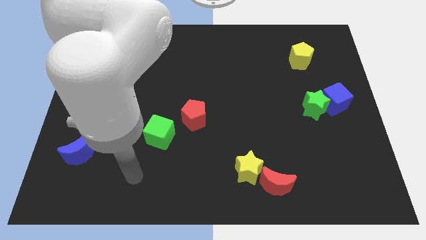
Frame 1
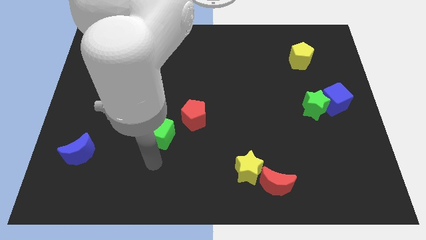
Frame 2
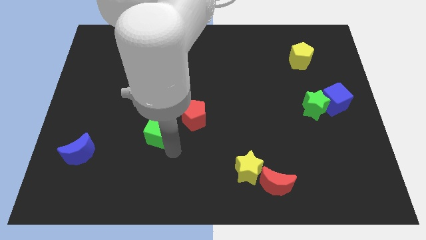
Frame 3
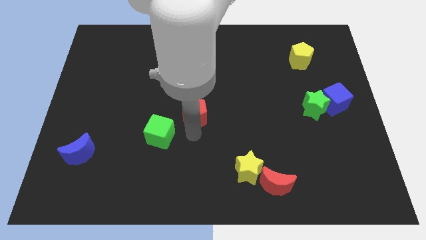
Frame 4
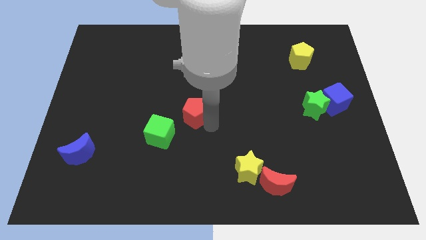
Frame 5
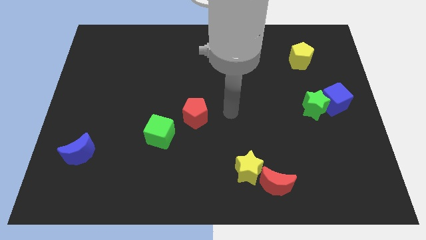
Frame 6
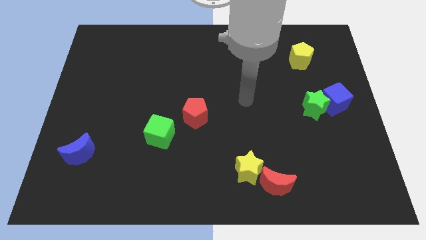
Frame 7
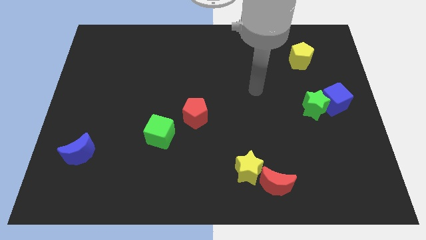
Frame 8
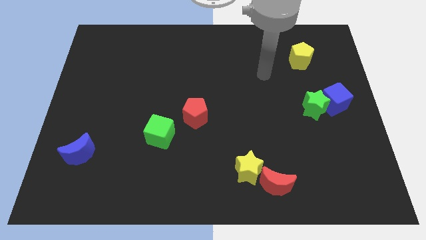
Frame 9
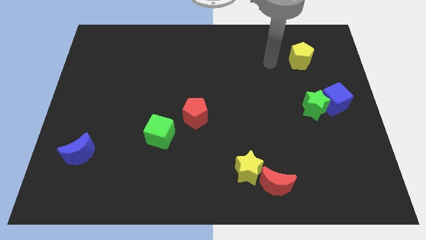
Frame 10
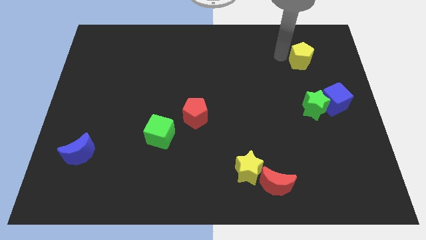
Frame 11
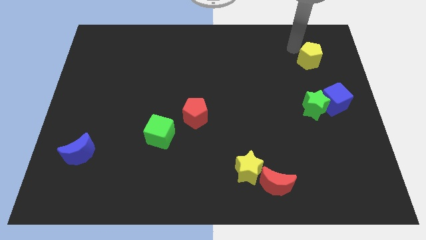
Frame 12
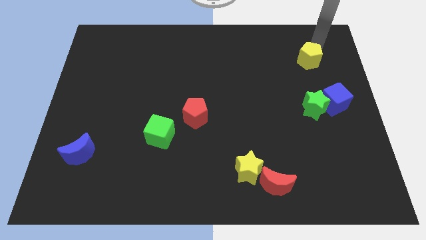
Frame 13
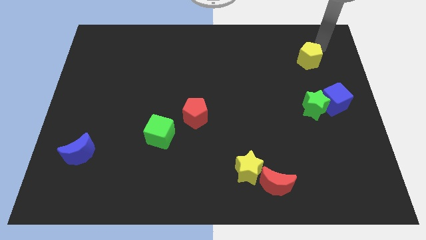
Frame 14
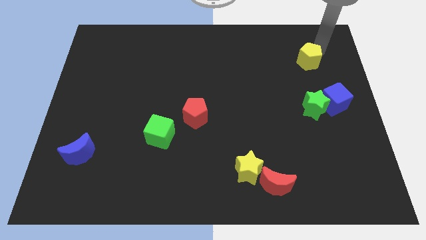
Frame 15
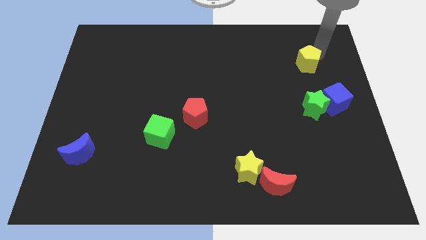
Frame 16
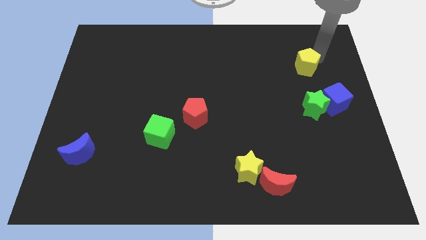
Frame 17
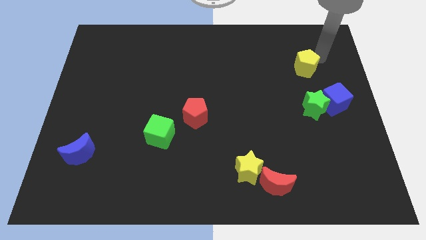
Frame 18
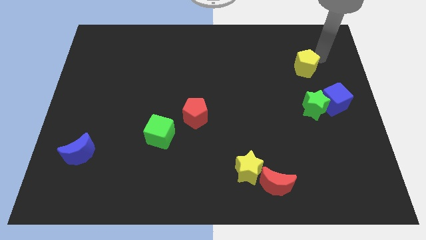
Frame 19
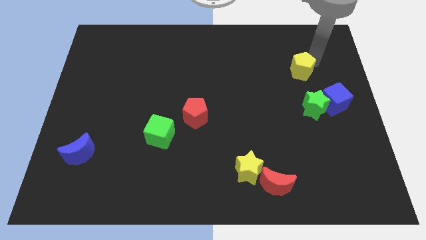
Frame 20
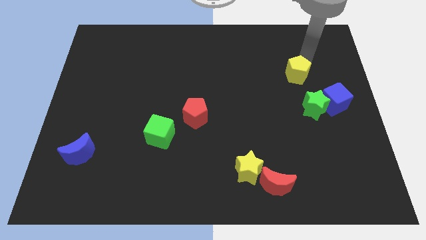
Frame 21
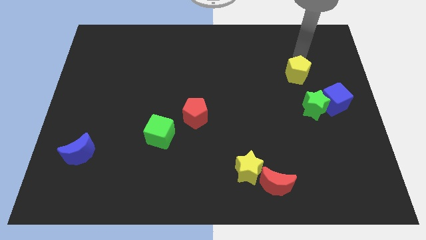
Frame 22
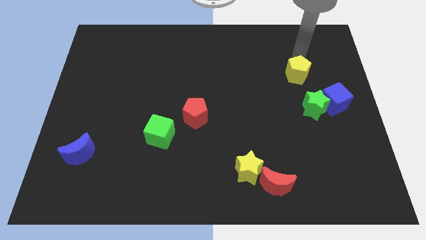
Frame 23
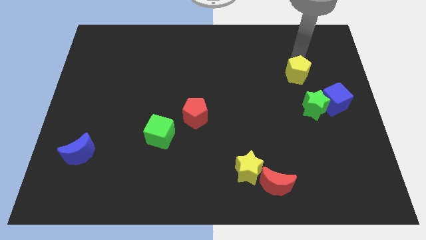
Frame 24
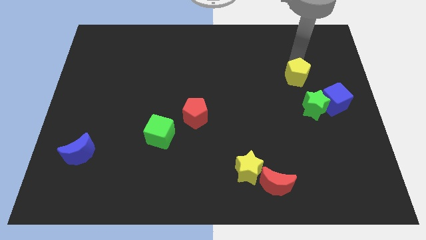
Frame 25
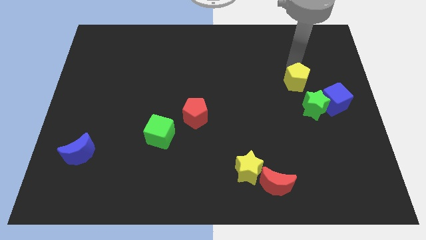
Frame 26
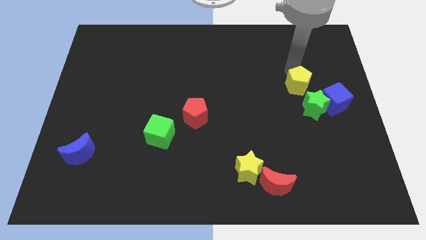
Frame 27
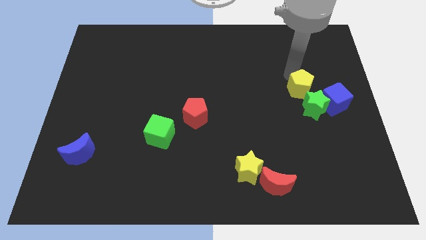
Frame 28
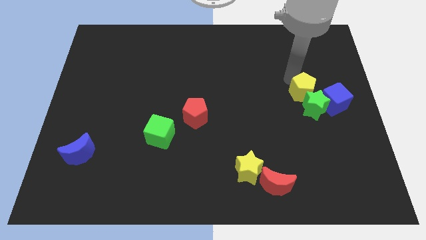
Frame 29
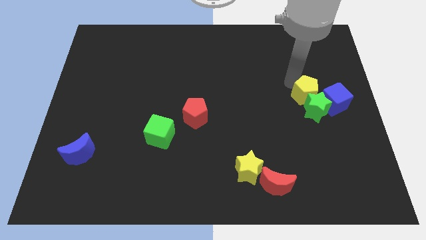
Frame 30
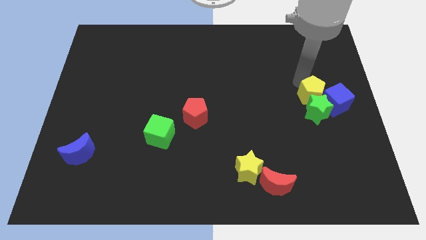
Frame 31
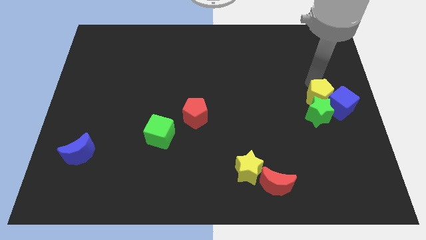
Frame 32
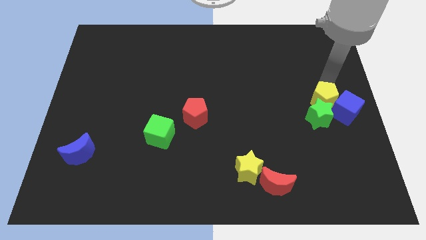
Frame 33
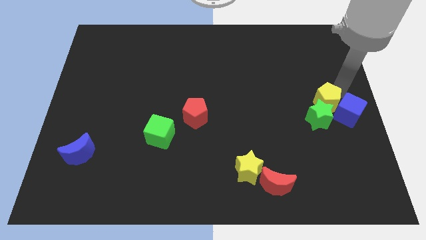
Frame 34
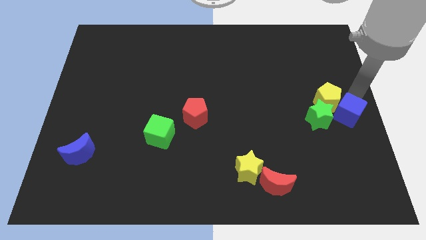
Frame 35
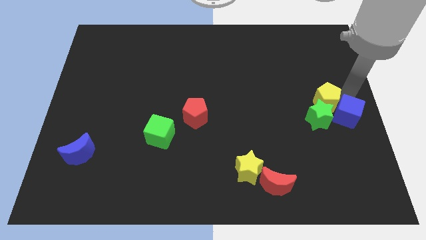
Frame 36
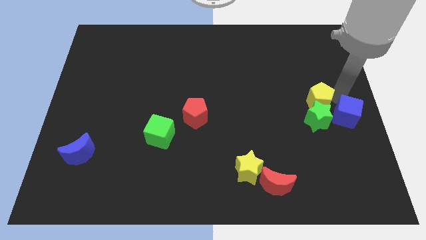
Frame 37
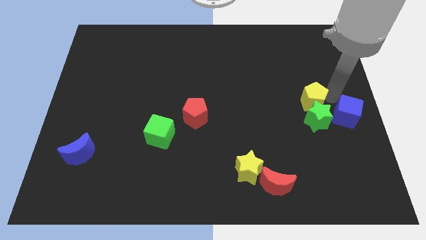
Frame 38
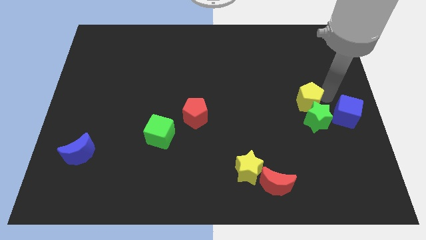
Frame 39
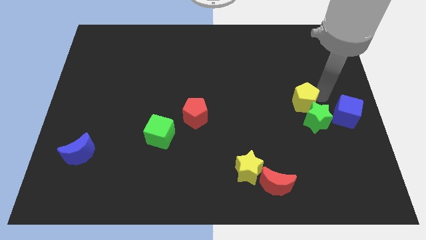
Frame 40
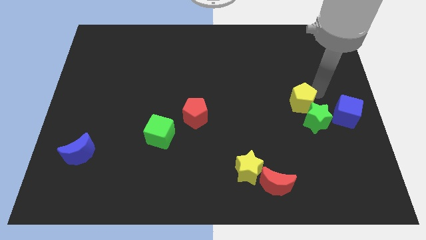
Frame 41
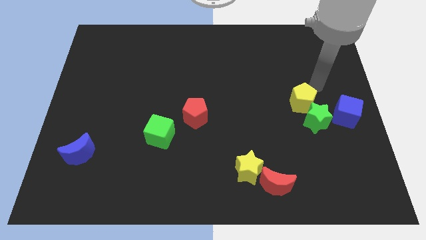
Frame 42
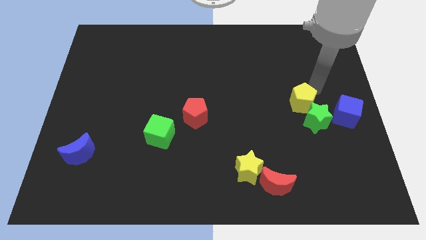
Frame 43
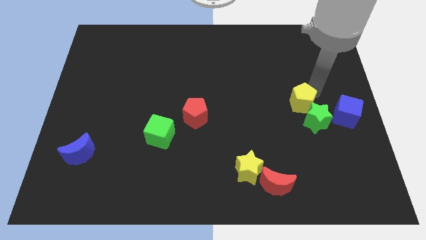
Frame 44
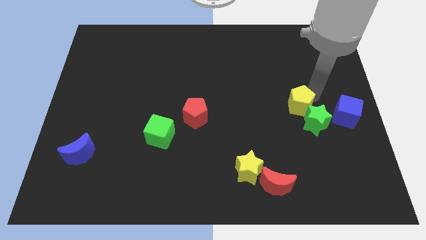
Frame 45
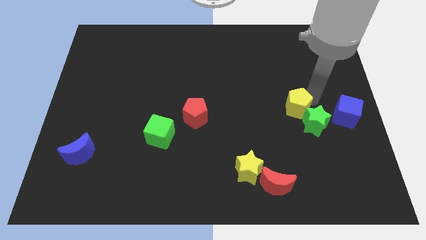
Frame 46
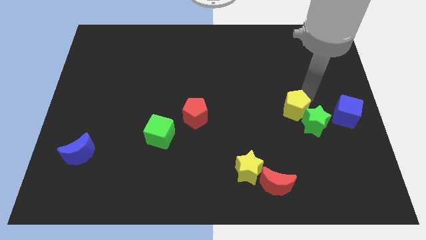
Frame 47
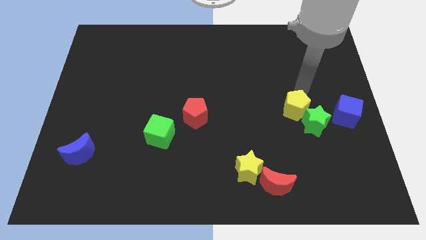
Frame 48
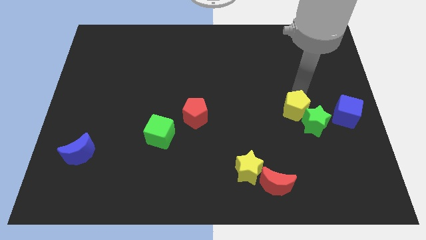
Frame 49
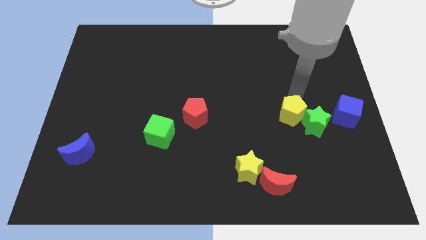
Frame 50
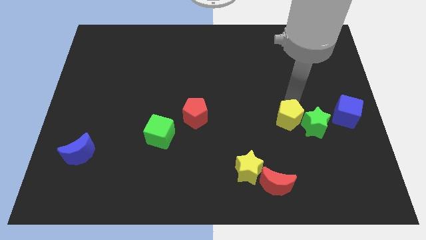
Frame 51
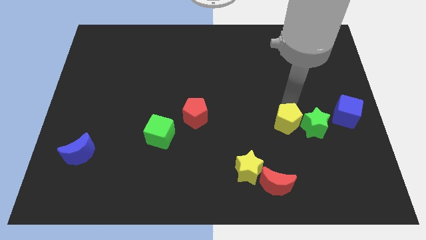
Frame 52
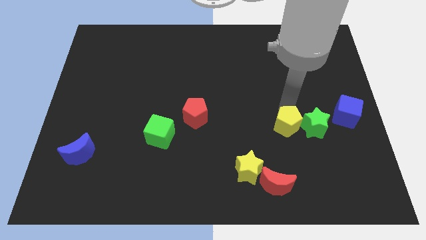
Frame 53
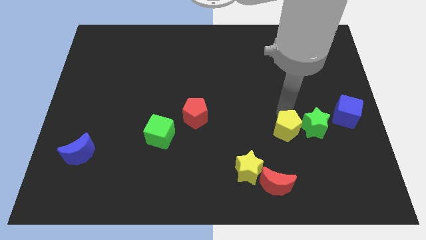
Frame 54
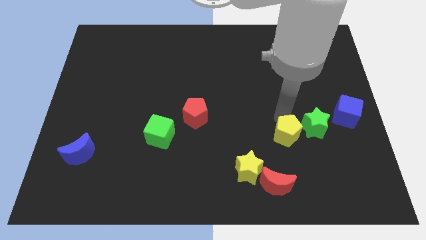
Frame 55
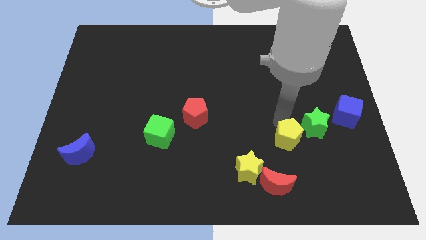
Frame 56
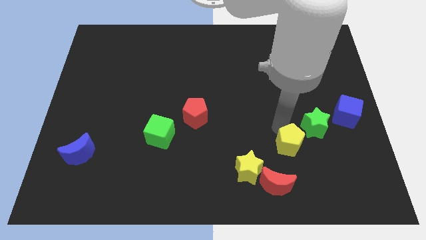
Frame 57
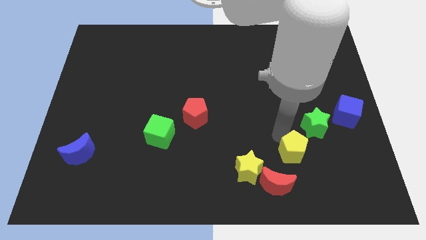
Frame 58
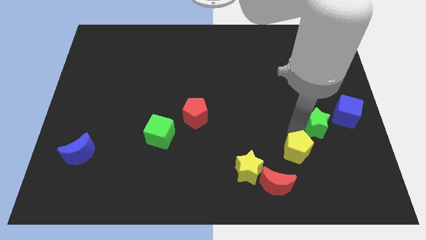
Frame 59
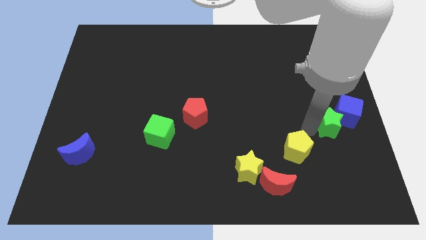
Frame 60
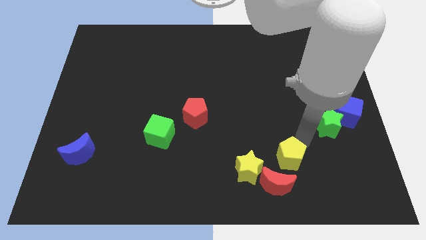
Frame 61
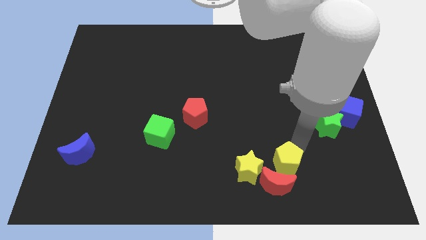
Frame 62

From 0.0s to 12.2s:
move the yellow pentagon to the red moon
